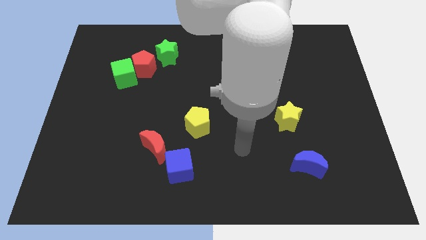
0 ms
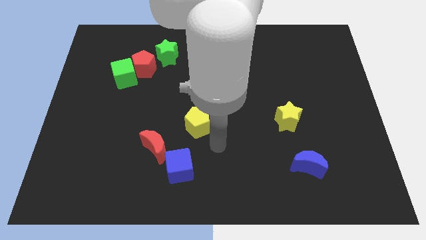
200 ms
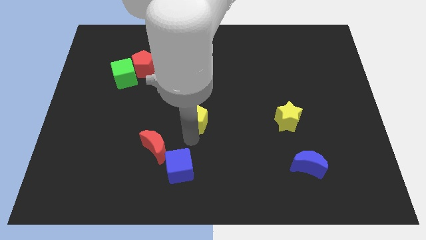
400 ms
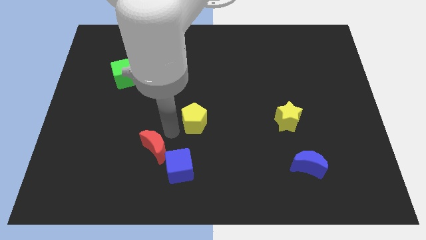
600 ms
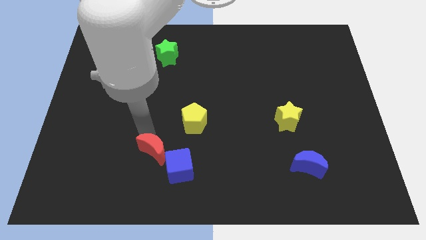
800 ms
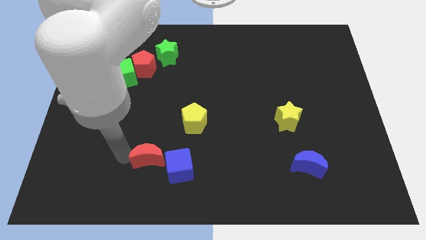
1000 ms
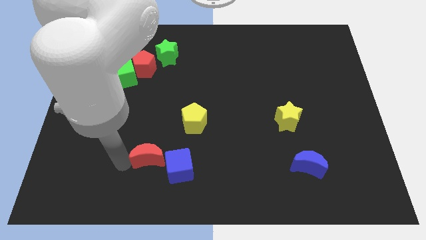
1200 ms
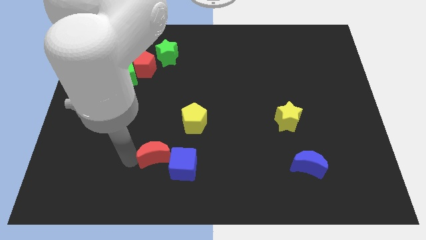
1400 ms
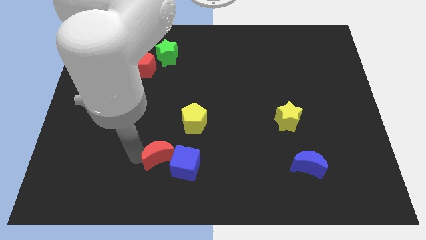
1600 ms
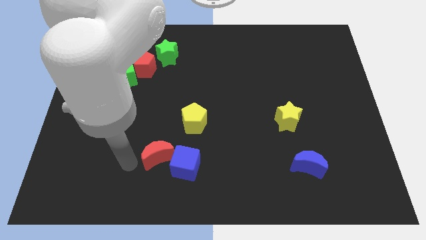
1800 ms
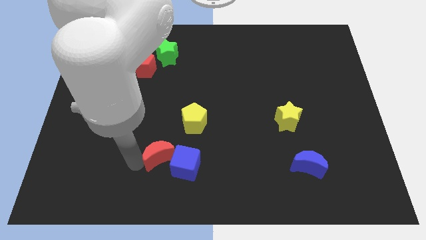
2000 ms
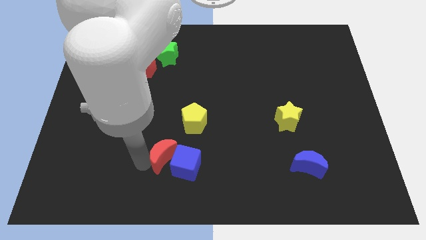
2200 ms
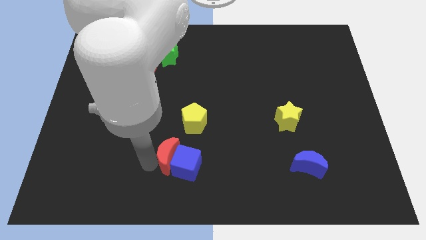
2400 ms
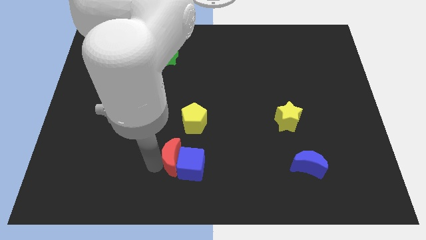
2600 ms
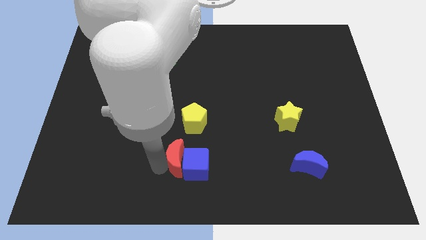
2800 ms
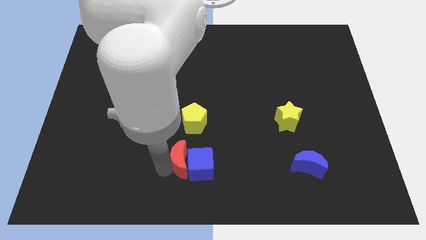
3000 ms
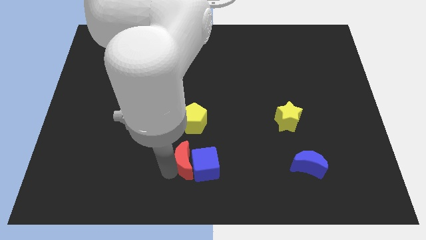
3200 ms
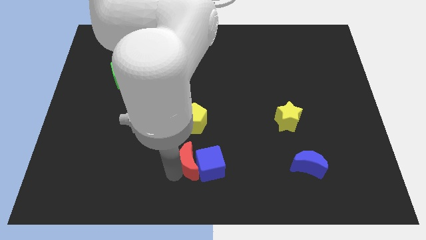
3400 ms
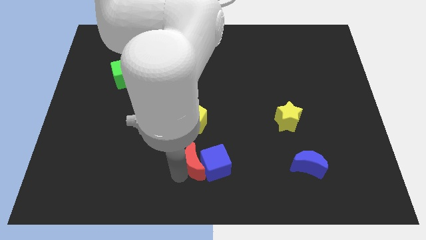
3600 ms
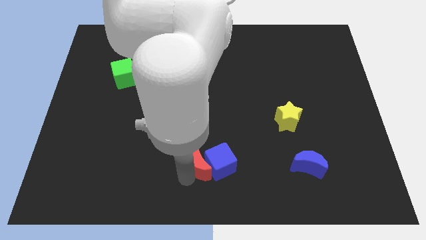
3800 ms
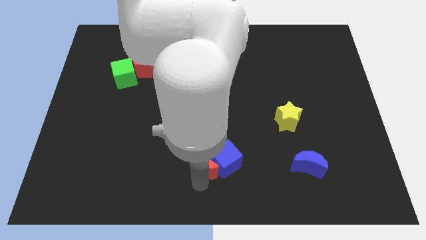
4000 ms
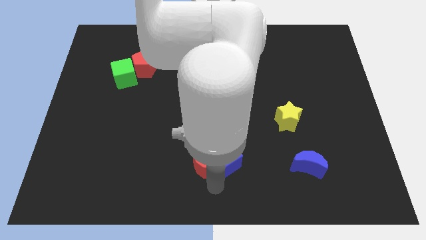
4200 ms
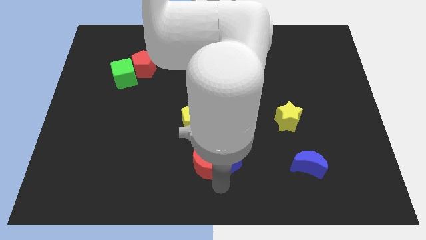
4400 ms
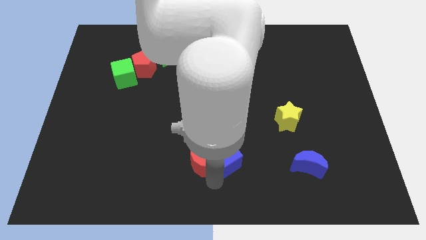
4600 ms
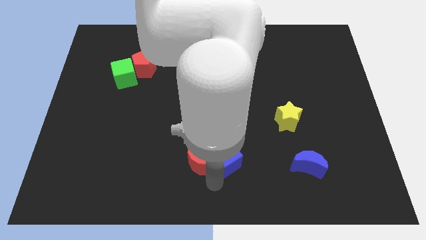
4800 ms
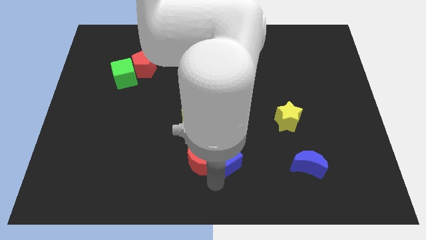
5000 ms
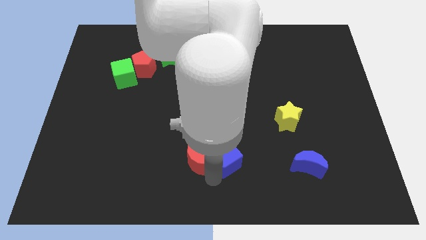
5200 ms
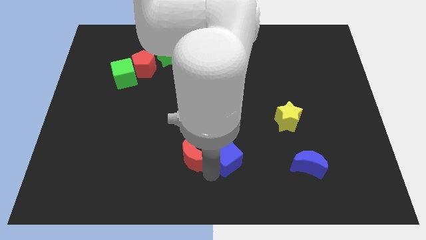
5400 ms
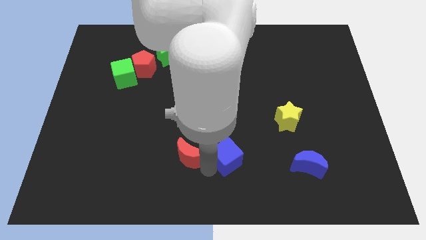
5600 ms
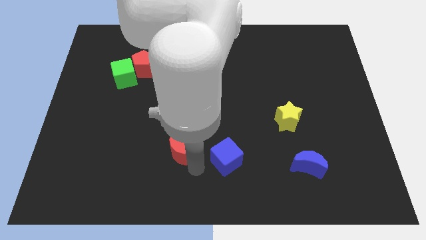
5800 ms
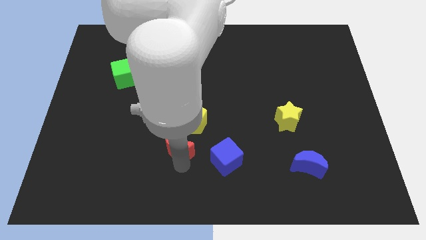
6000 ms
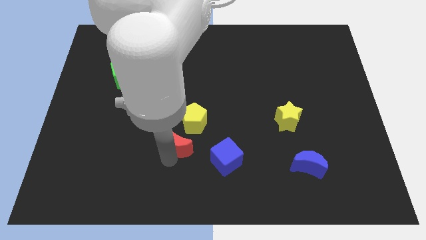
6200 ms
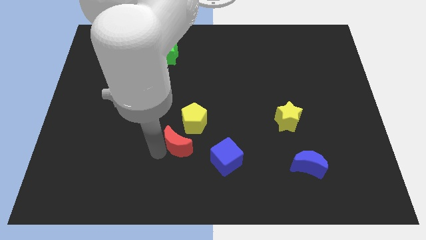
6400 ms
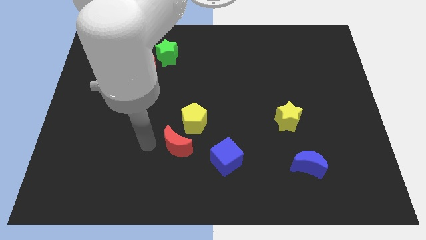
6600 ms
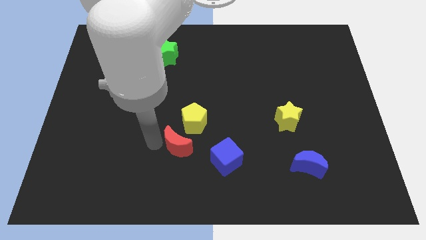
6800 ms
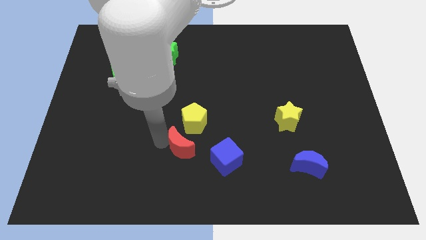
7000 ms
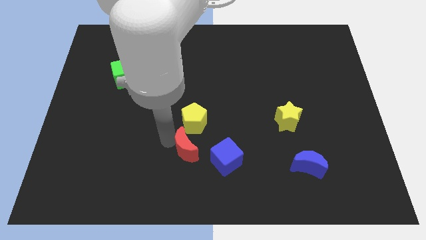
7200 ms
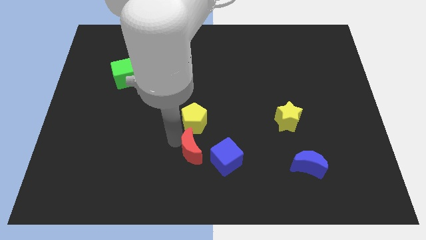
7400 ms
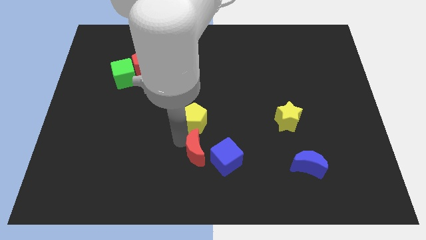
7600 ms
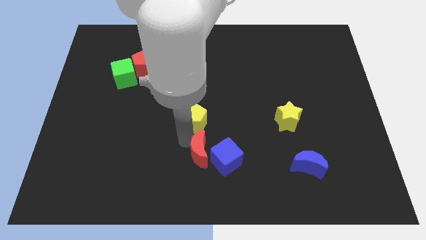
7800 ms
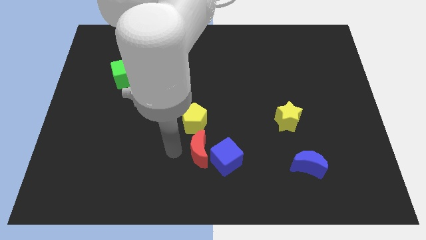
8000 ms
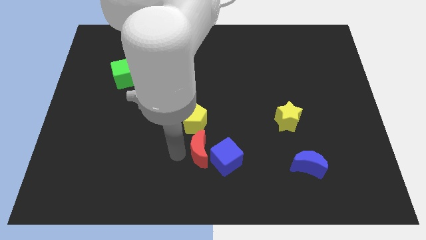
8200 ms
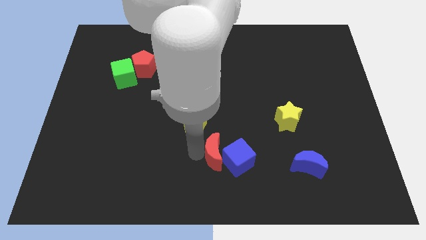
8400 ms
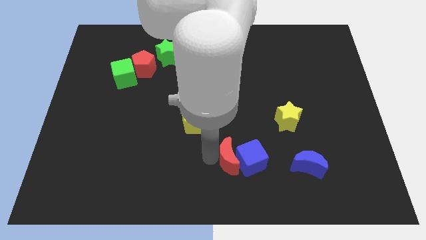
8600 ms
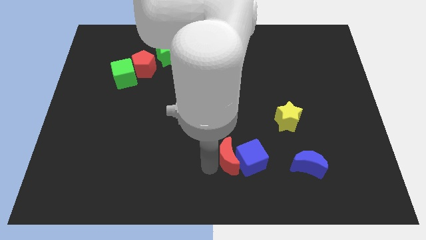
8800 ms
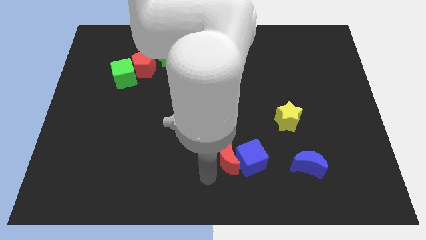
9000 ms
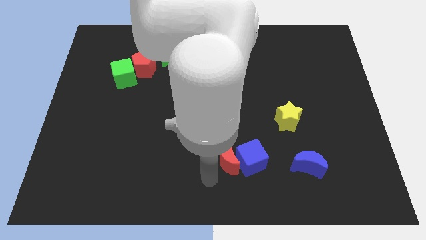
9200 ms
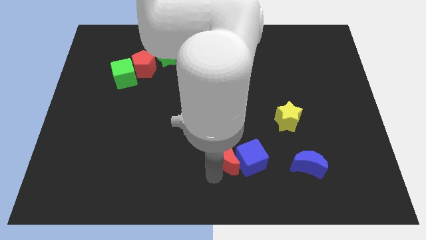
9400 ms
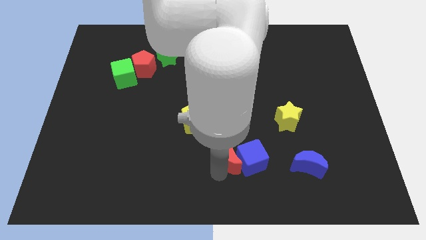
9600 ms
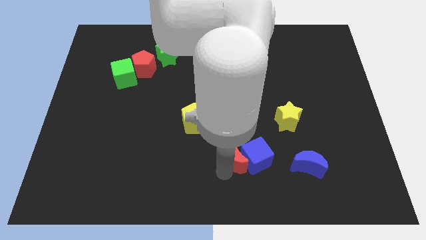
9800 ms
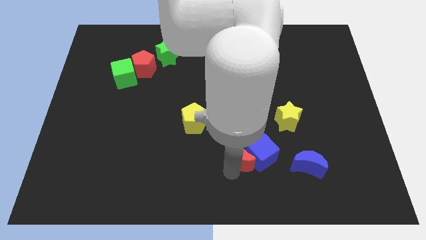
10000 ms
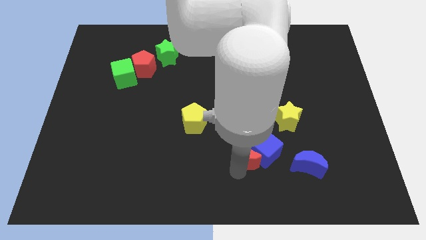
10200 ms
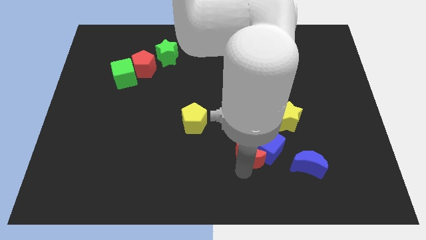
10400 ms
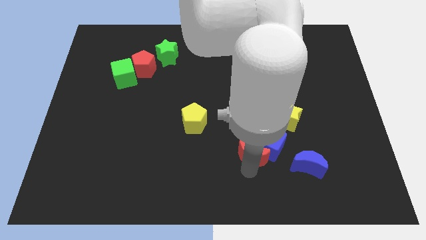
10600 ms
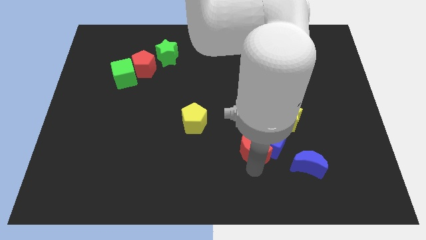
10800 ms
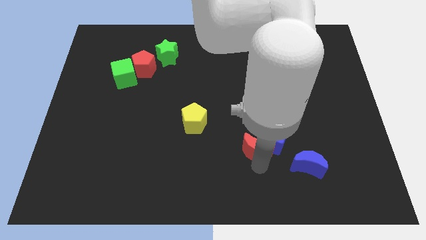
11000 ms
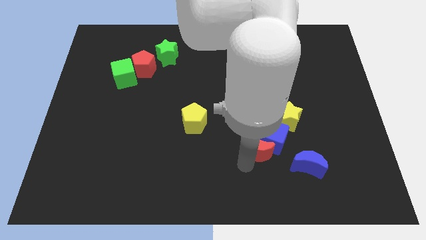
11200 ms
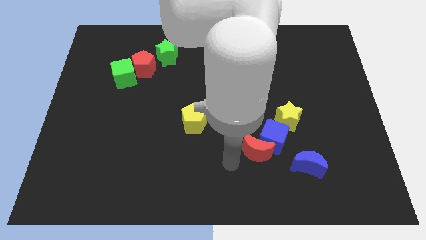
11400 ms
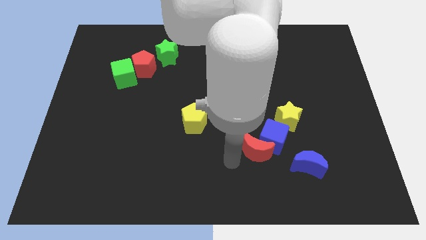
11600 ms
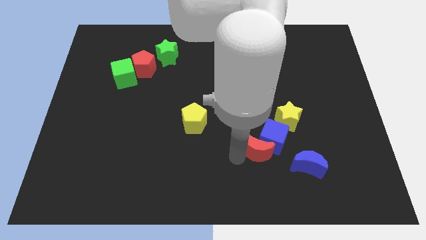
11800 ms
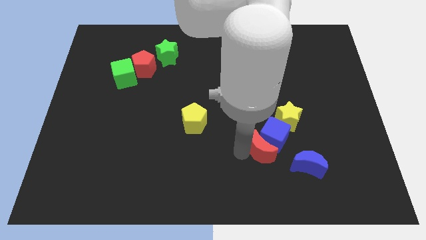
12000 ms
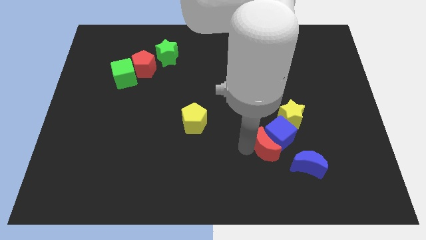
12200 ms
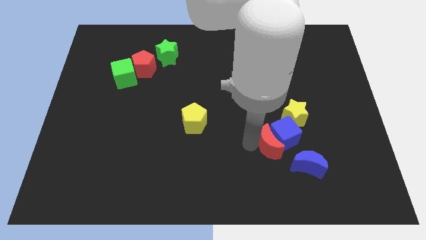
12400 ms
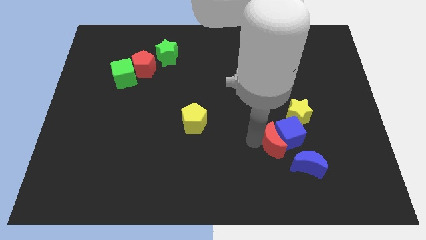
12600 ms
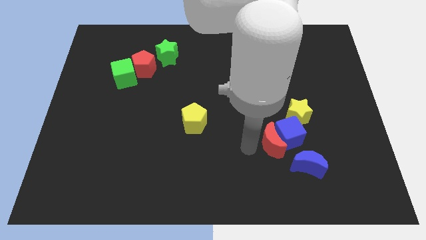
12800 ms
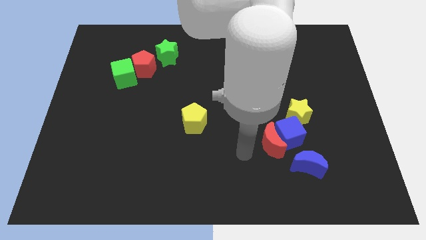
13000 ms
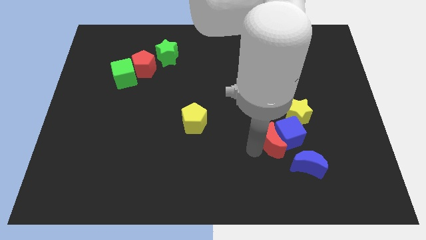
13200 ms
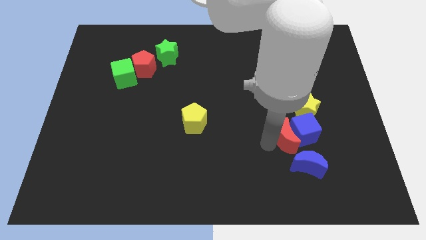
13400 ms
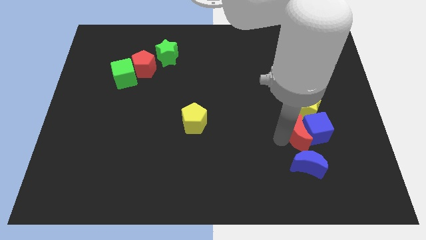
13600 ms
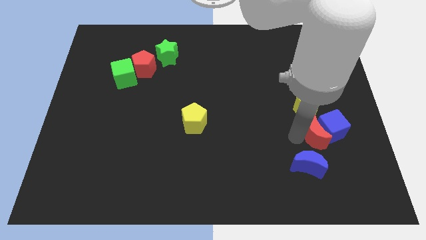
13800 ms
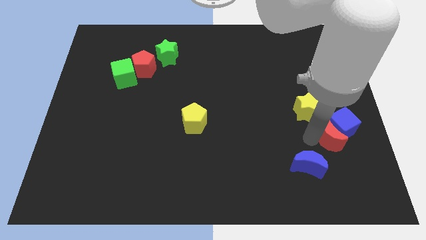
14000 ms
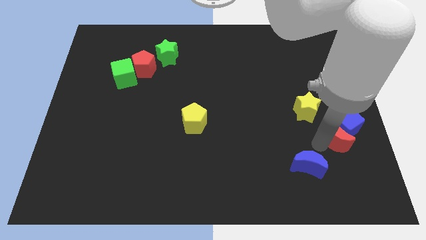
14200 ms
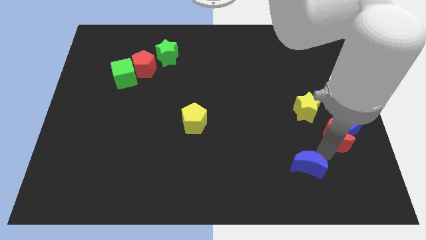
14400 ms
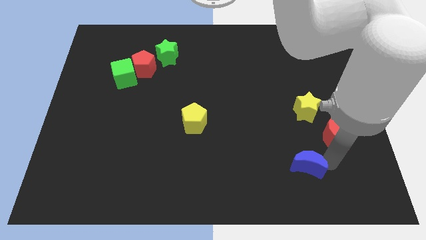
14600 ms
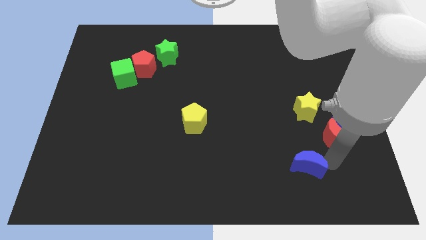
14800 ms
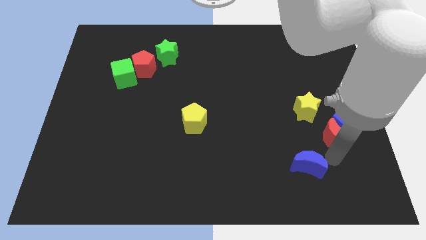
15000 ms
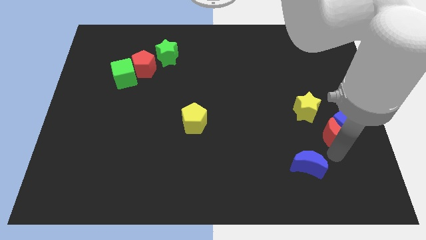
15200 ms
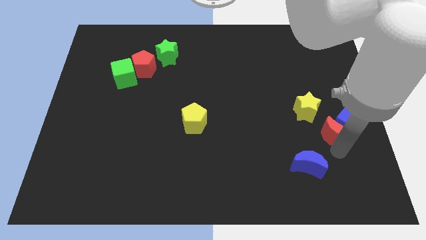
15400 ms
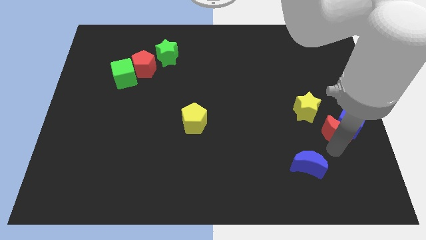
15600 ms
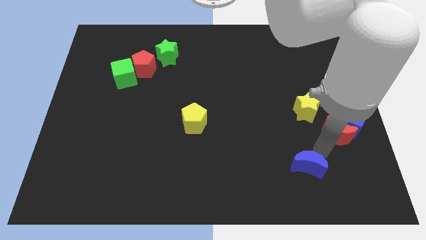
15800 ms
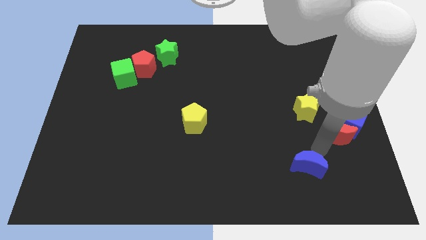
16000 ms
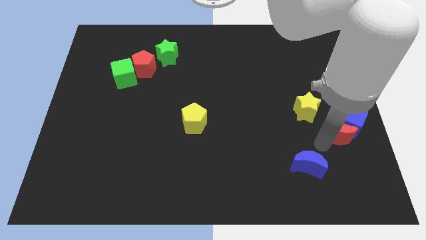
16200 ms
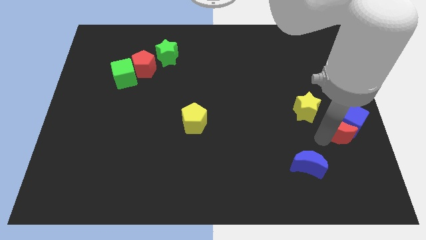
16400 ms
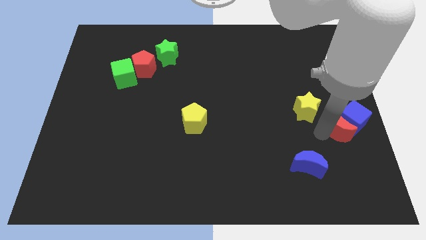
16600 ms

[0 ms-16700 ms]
put the red moon to the right side
